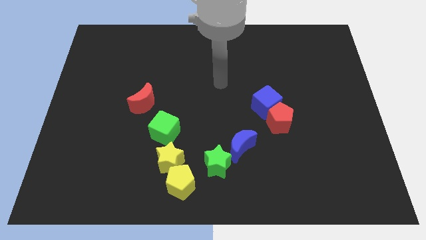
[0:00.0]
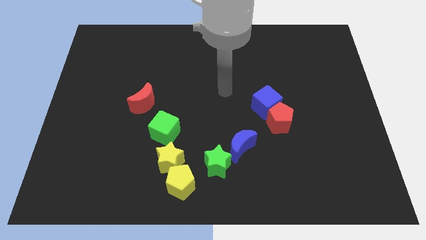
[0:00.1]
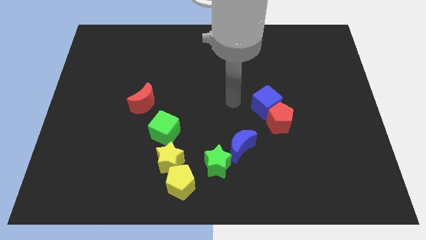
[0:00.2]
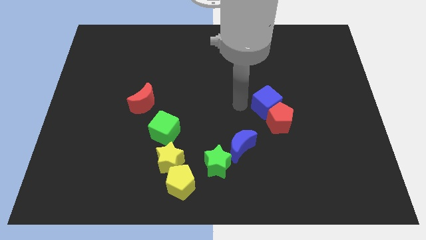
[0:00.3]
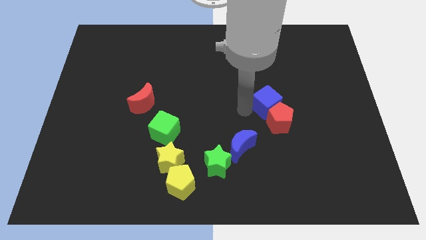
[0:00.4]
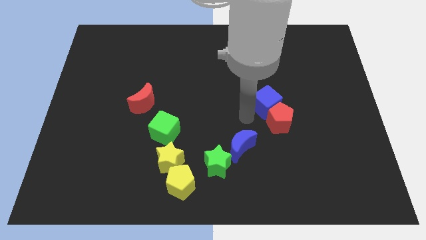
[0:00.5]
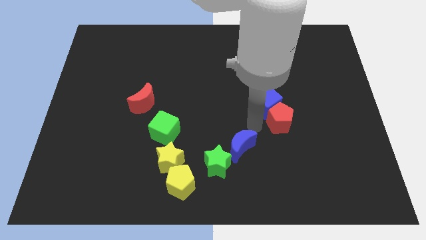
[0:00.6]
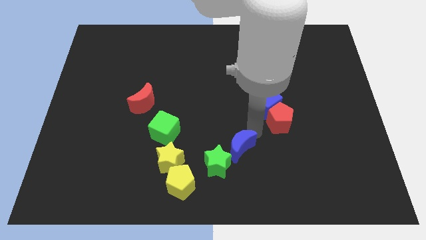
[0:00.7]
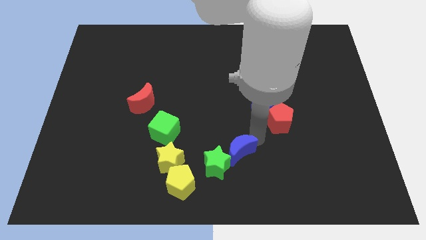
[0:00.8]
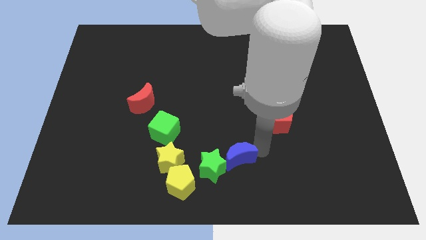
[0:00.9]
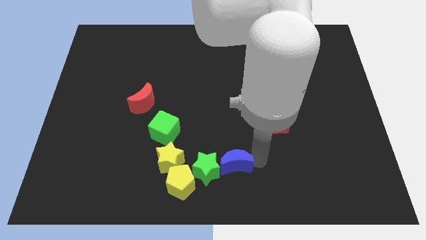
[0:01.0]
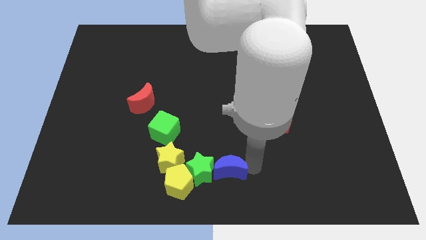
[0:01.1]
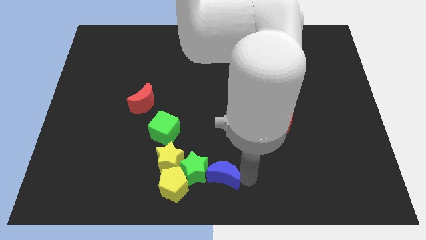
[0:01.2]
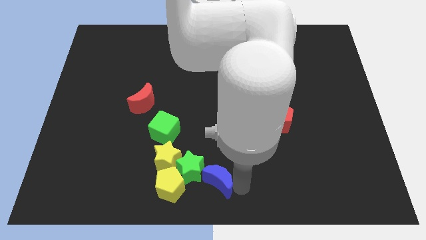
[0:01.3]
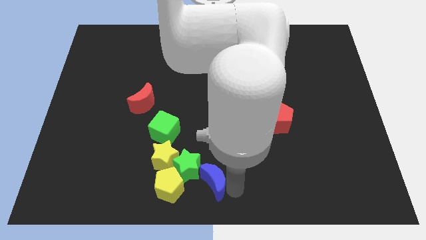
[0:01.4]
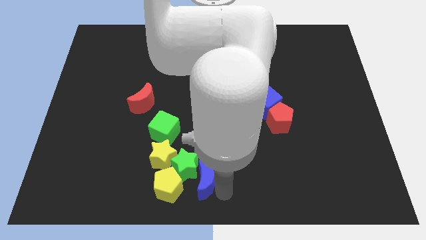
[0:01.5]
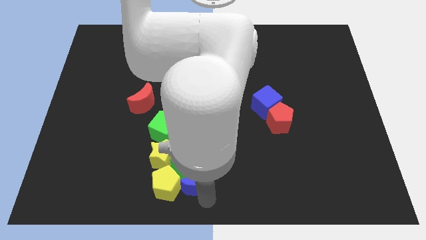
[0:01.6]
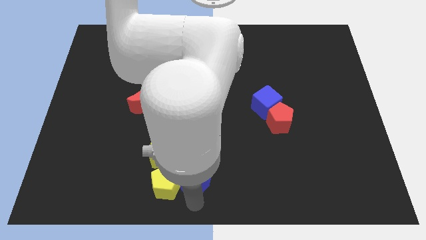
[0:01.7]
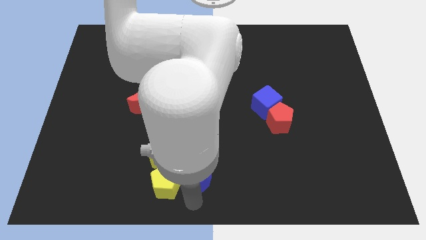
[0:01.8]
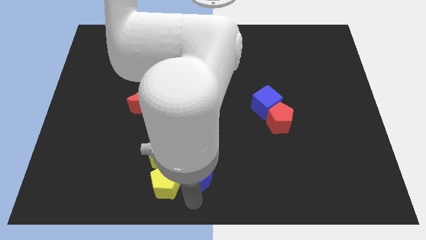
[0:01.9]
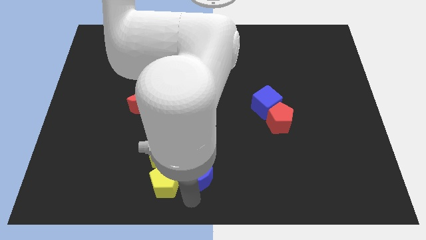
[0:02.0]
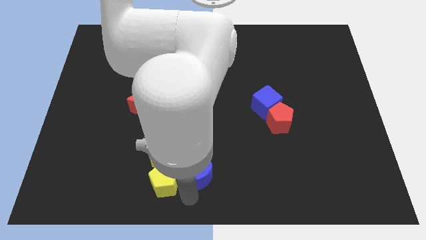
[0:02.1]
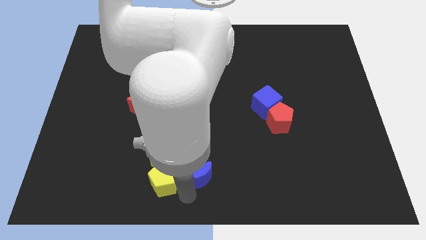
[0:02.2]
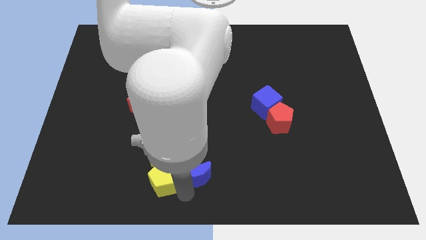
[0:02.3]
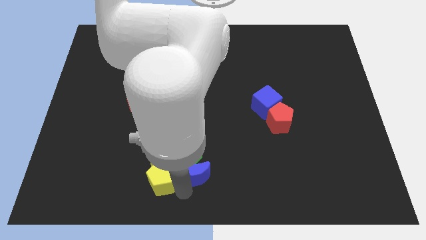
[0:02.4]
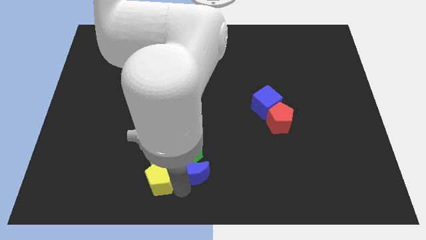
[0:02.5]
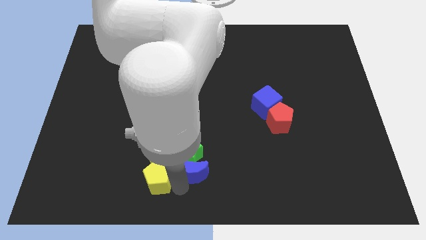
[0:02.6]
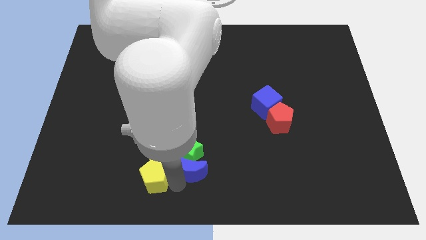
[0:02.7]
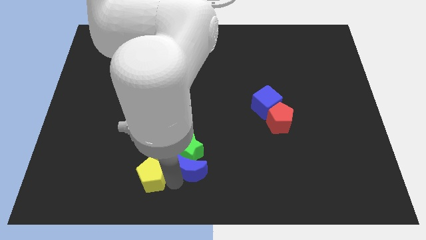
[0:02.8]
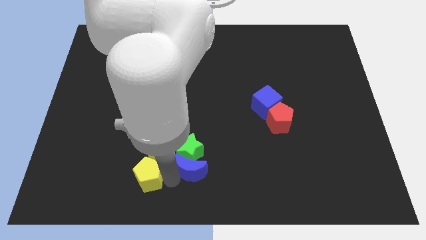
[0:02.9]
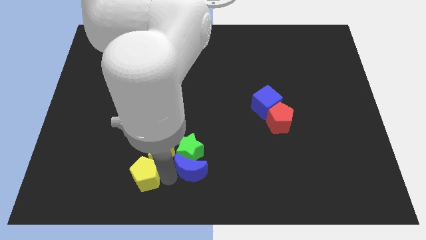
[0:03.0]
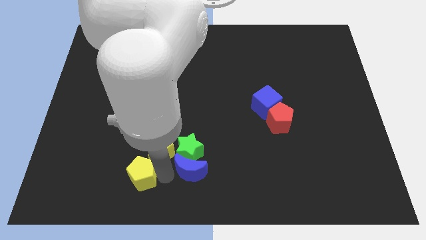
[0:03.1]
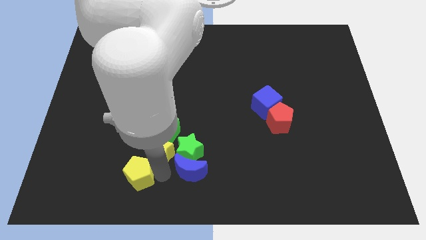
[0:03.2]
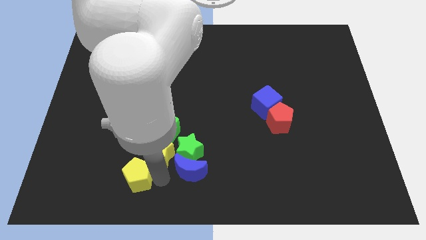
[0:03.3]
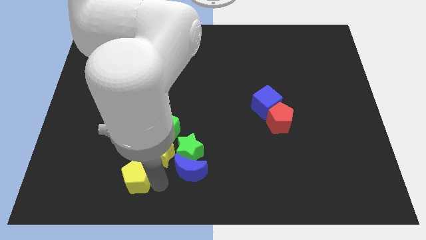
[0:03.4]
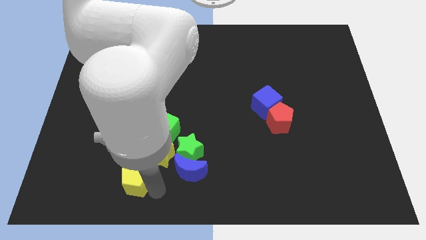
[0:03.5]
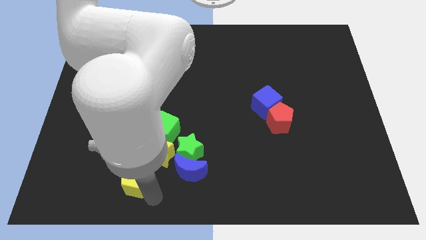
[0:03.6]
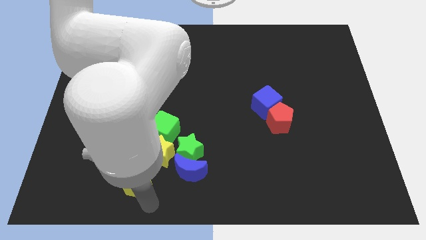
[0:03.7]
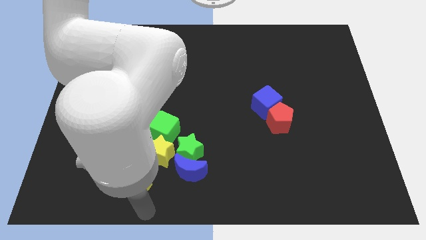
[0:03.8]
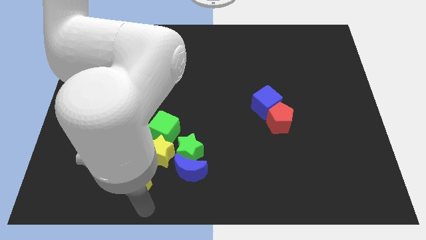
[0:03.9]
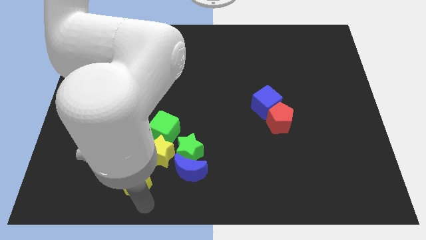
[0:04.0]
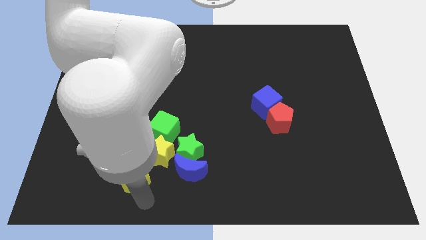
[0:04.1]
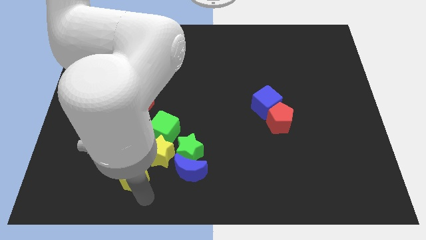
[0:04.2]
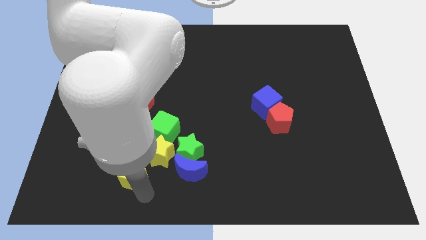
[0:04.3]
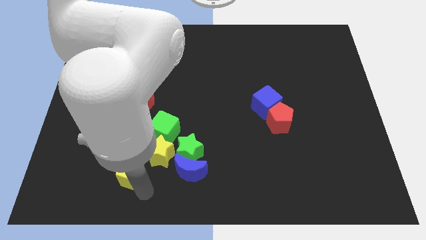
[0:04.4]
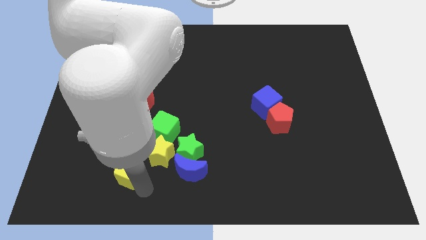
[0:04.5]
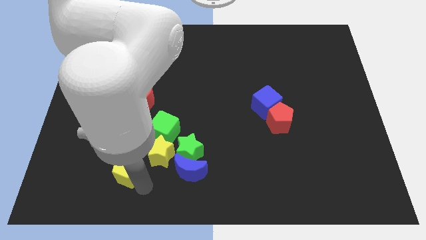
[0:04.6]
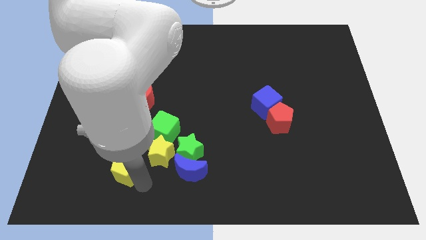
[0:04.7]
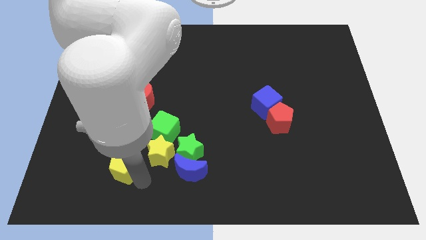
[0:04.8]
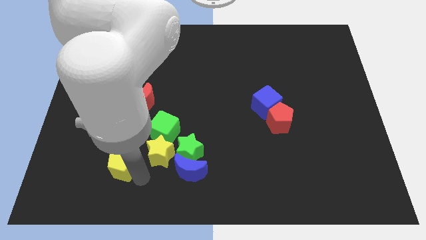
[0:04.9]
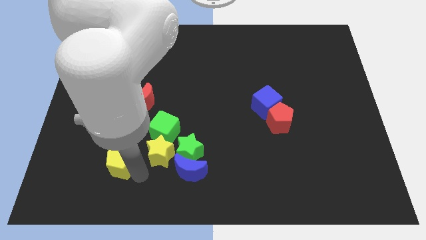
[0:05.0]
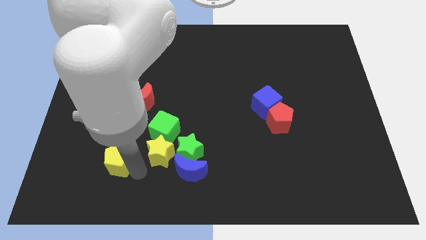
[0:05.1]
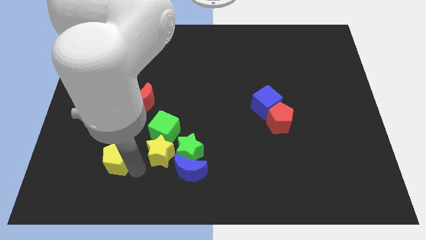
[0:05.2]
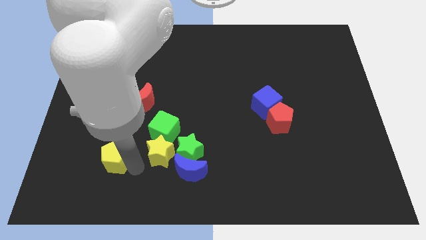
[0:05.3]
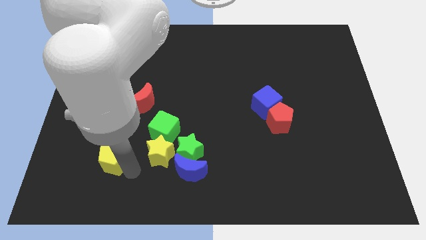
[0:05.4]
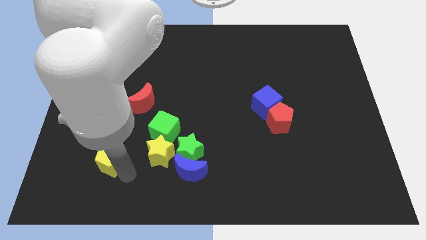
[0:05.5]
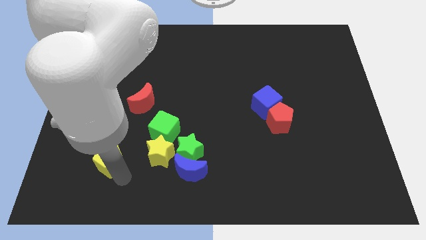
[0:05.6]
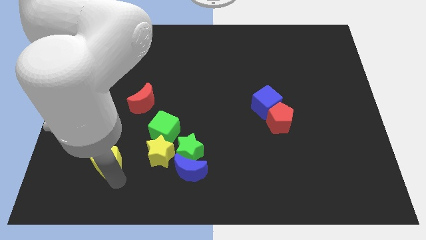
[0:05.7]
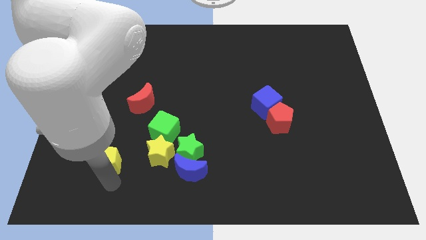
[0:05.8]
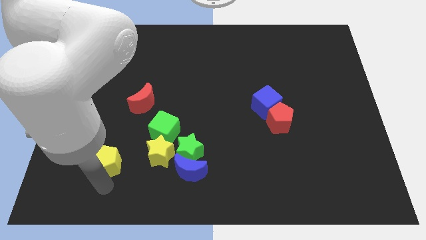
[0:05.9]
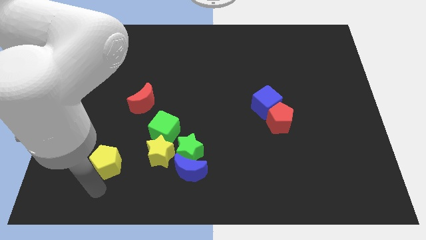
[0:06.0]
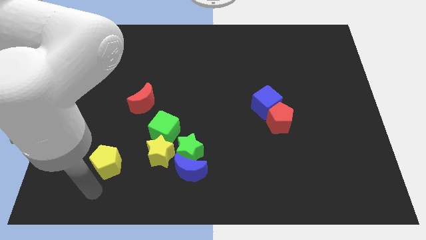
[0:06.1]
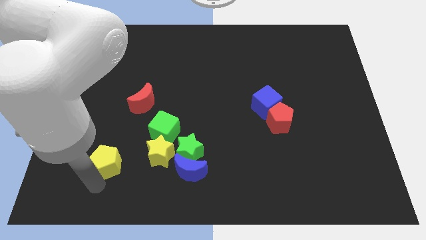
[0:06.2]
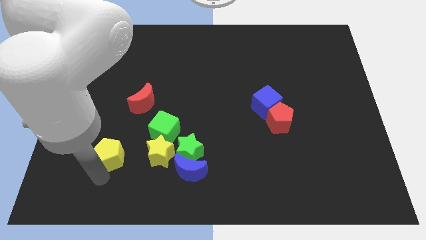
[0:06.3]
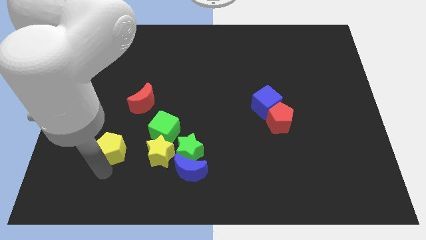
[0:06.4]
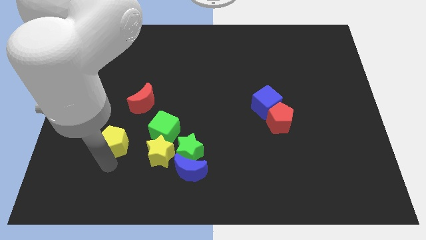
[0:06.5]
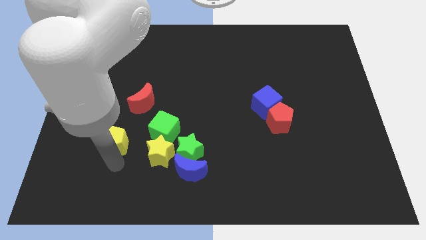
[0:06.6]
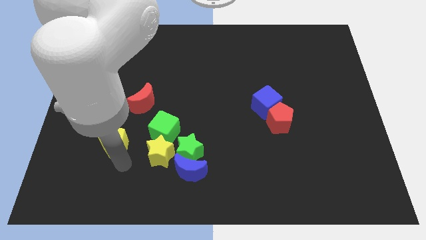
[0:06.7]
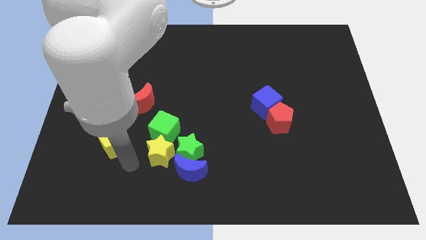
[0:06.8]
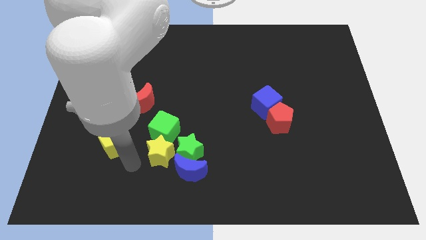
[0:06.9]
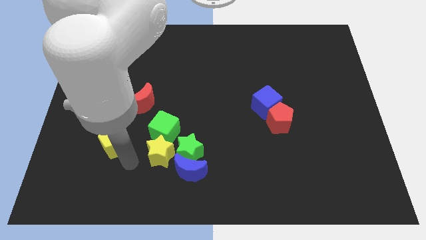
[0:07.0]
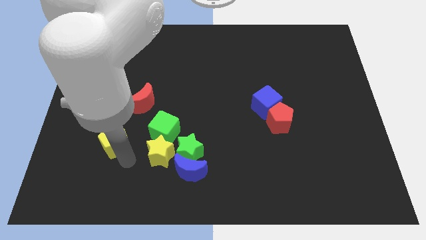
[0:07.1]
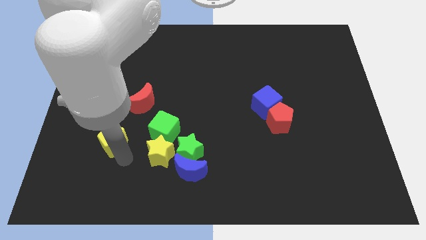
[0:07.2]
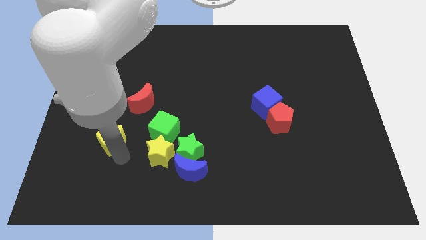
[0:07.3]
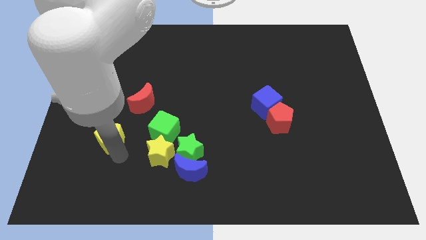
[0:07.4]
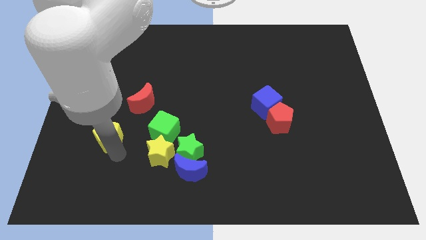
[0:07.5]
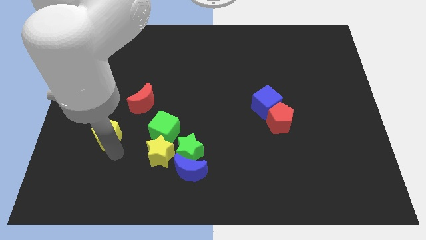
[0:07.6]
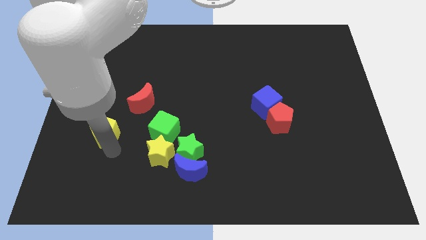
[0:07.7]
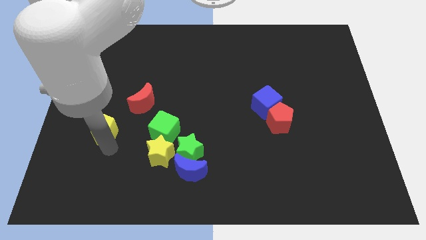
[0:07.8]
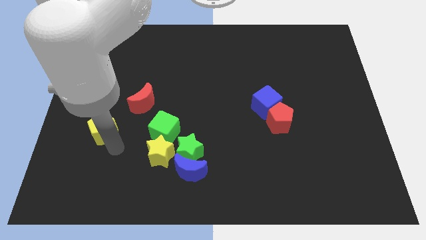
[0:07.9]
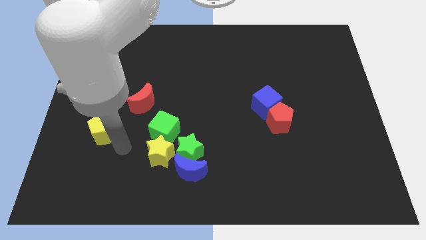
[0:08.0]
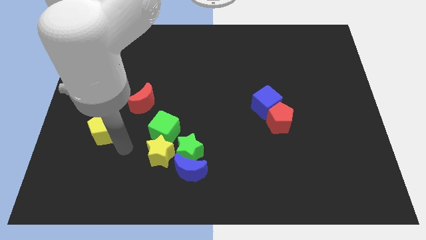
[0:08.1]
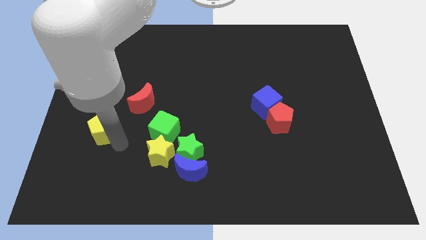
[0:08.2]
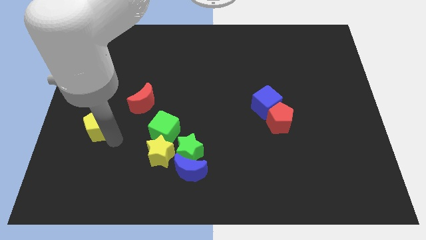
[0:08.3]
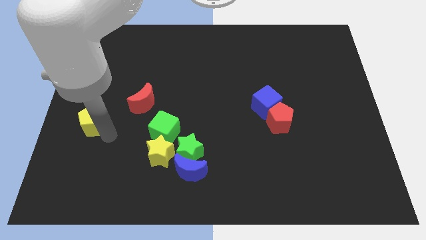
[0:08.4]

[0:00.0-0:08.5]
push the yellow pentagon to the left side
